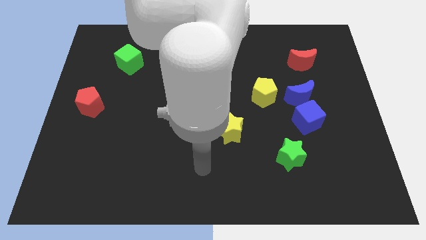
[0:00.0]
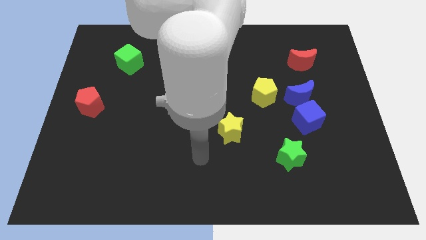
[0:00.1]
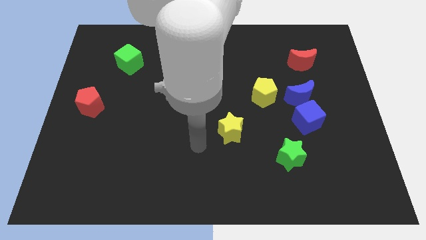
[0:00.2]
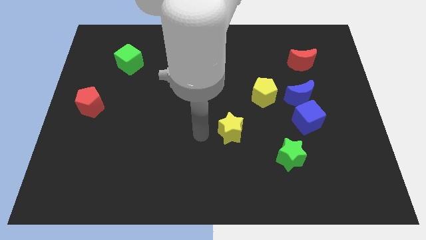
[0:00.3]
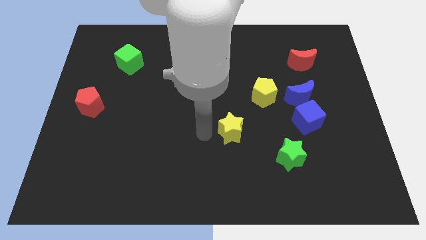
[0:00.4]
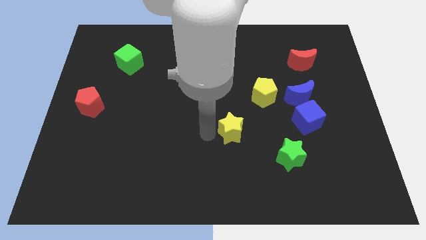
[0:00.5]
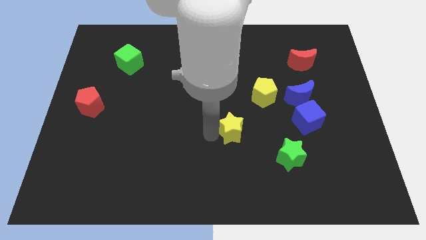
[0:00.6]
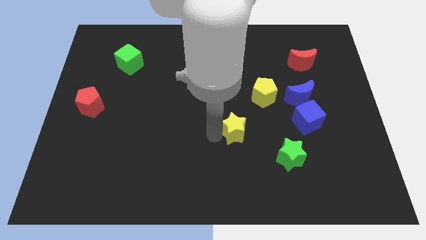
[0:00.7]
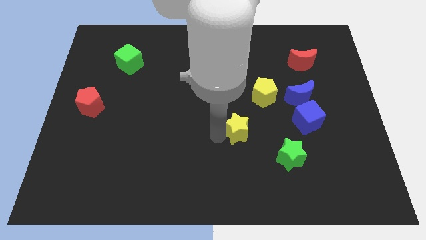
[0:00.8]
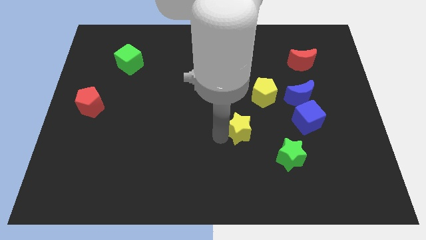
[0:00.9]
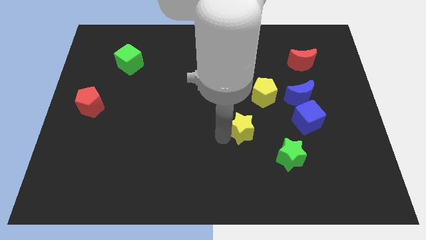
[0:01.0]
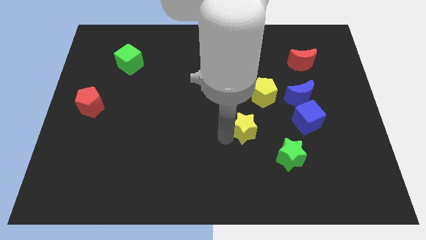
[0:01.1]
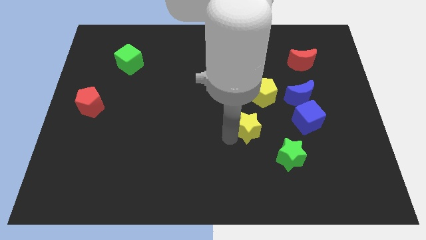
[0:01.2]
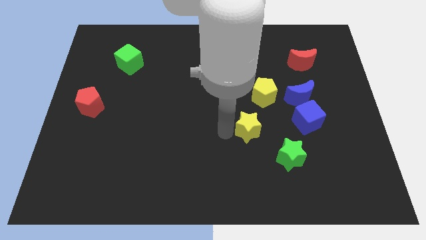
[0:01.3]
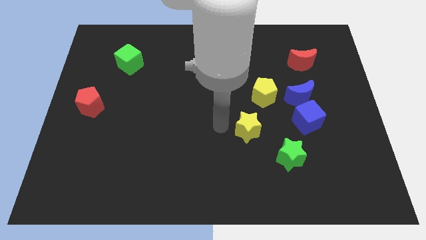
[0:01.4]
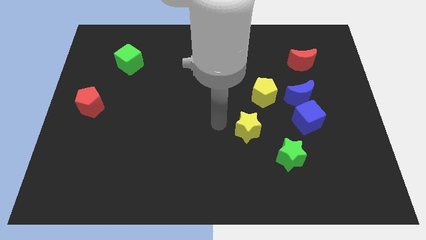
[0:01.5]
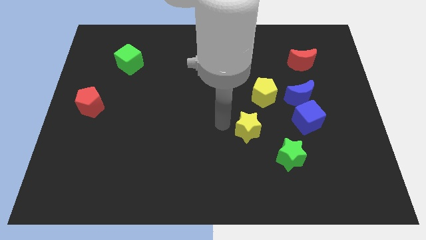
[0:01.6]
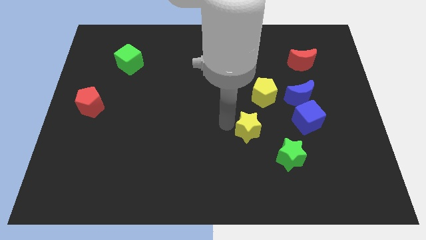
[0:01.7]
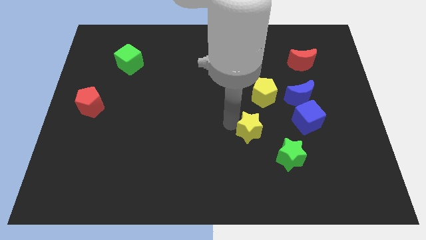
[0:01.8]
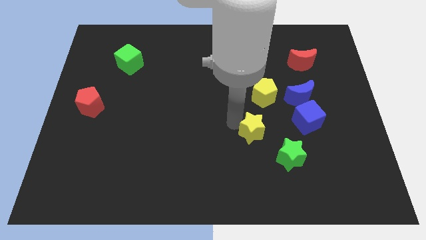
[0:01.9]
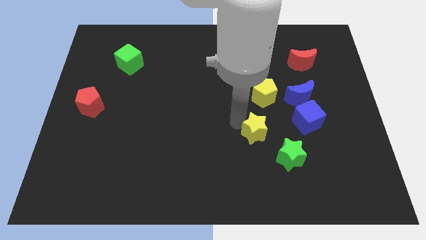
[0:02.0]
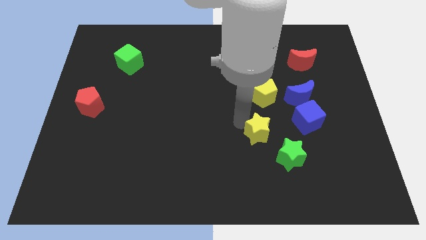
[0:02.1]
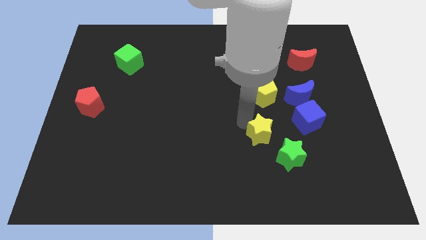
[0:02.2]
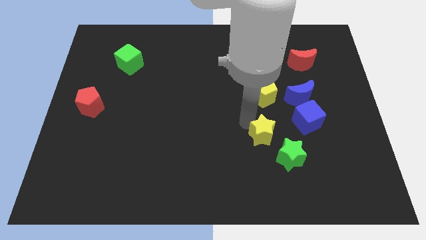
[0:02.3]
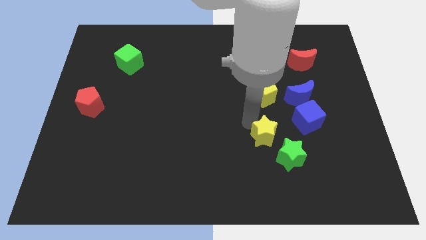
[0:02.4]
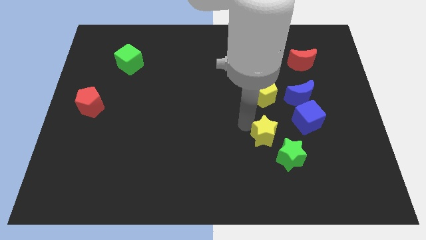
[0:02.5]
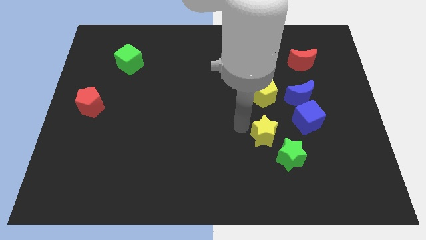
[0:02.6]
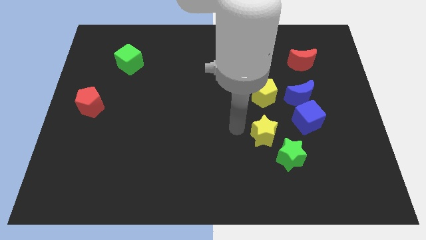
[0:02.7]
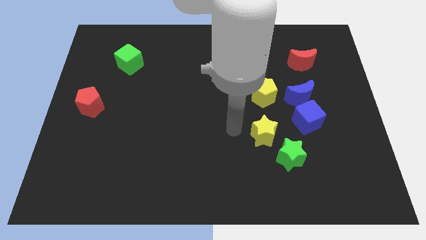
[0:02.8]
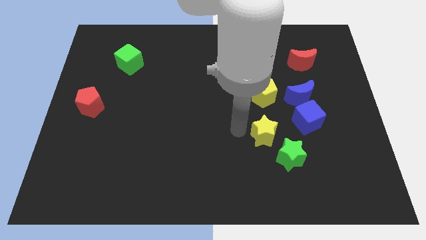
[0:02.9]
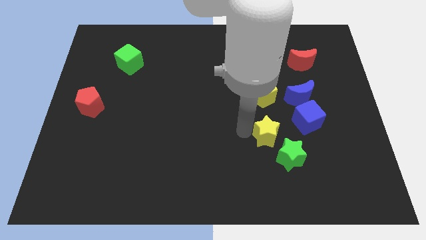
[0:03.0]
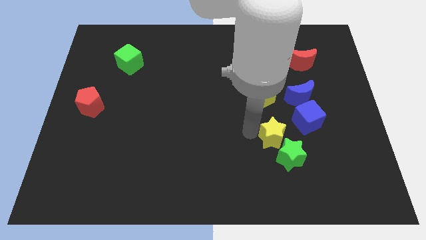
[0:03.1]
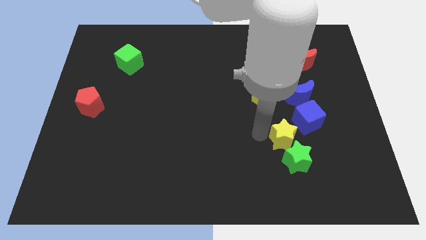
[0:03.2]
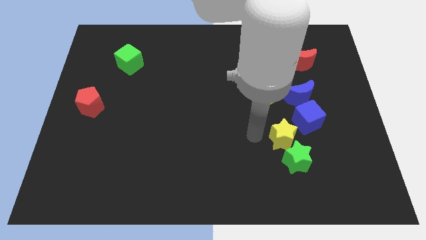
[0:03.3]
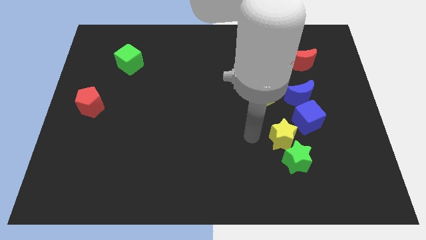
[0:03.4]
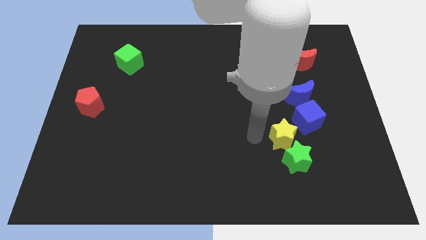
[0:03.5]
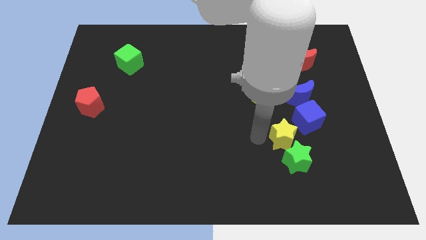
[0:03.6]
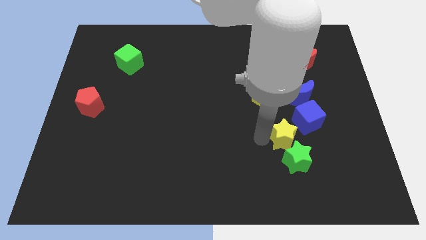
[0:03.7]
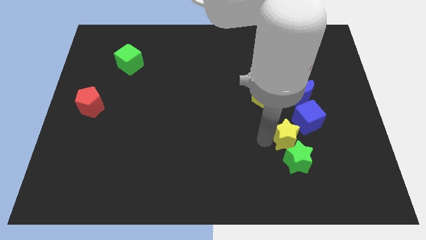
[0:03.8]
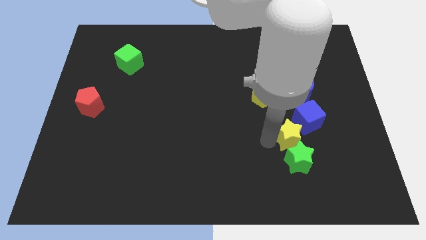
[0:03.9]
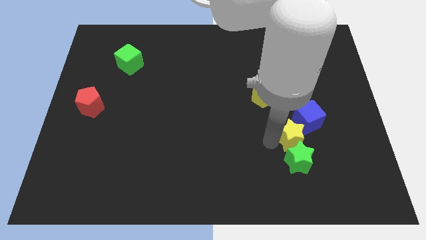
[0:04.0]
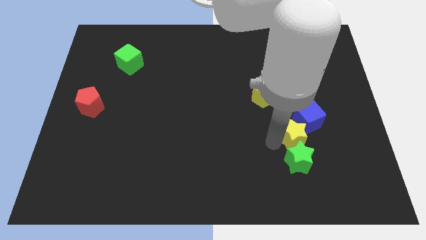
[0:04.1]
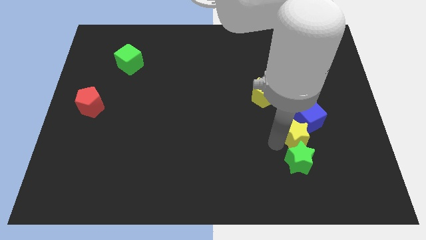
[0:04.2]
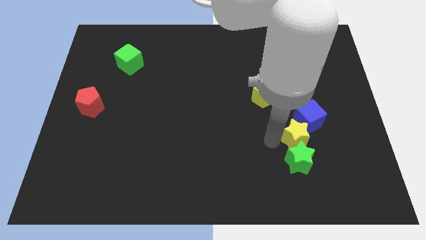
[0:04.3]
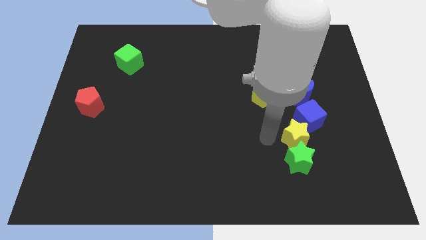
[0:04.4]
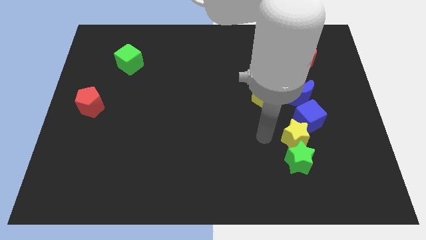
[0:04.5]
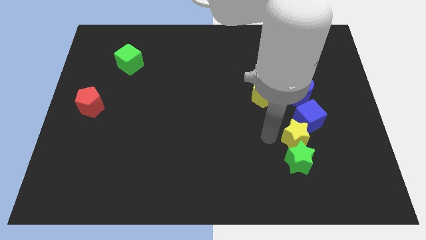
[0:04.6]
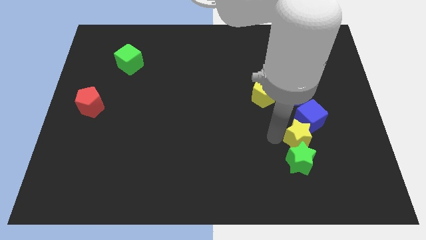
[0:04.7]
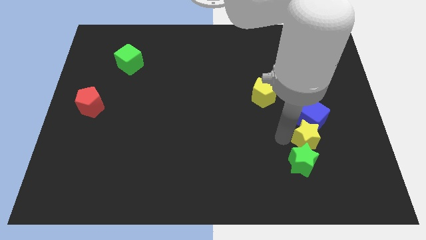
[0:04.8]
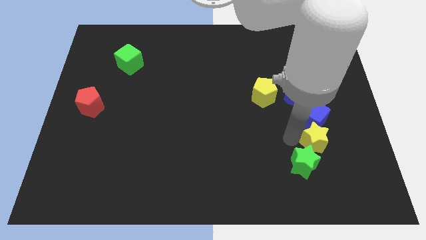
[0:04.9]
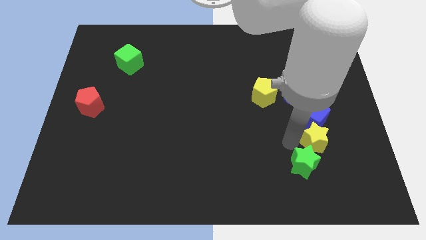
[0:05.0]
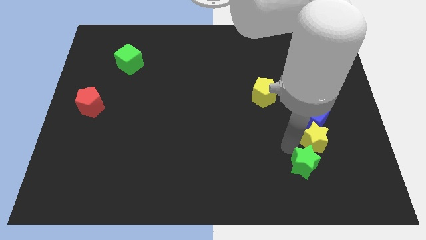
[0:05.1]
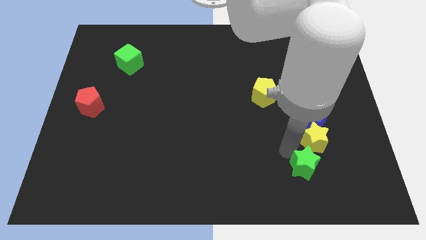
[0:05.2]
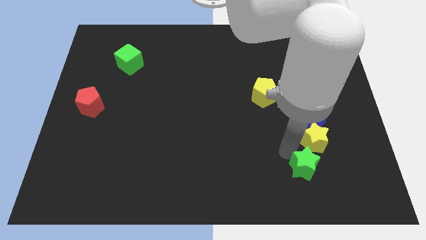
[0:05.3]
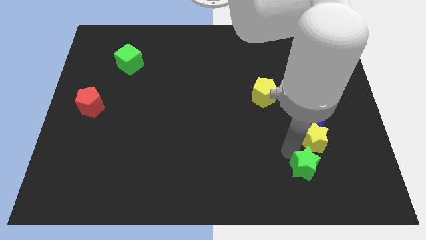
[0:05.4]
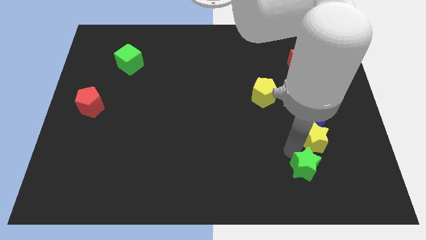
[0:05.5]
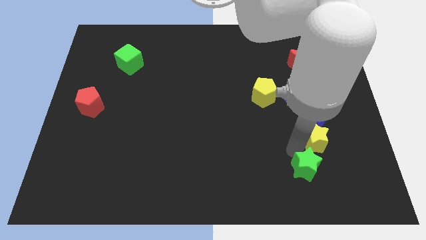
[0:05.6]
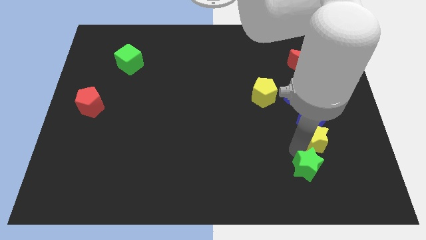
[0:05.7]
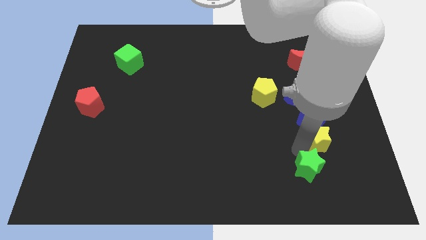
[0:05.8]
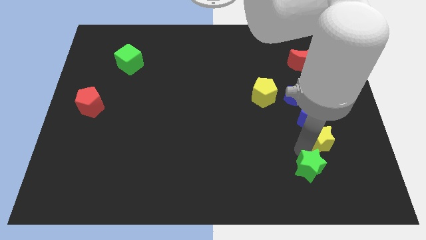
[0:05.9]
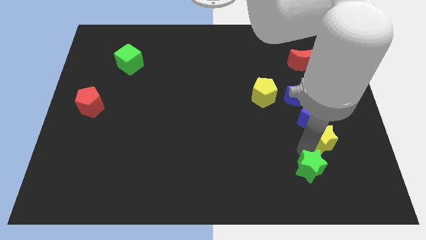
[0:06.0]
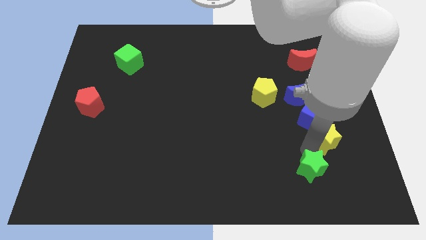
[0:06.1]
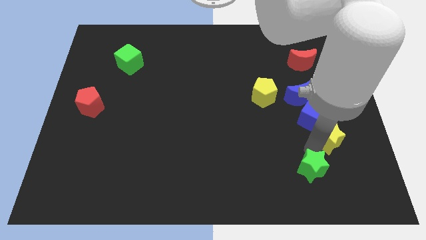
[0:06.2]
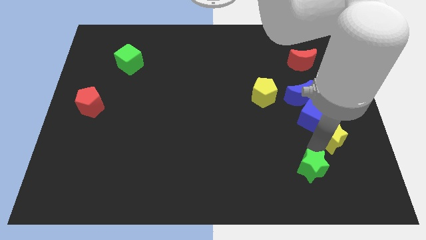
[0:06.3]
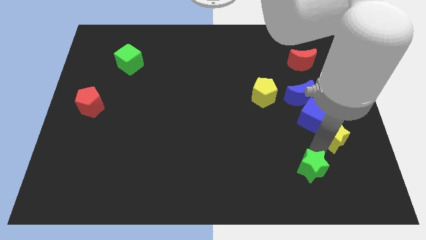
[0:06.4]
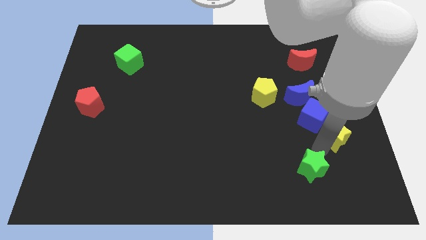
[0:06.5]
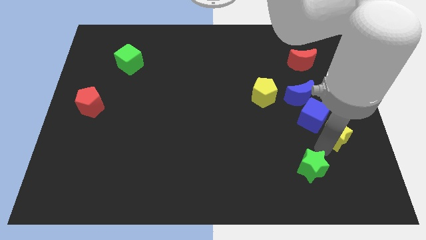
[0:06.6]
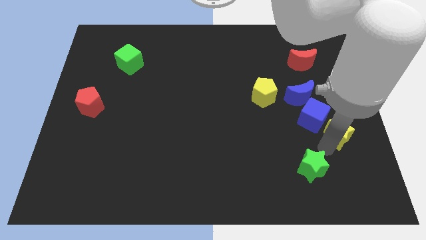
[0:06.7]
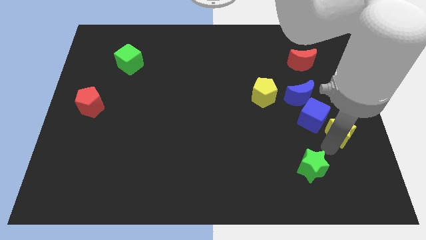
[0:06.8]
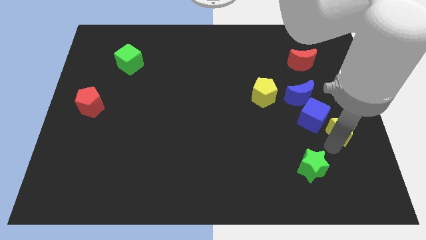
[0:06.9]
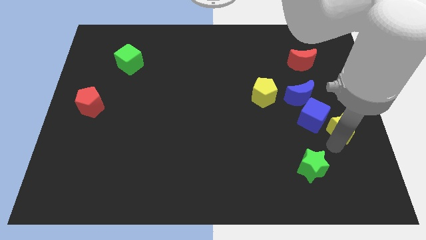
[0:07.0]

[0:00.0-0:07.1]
put the yellow star to the right side

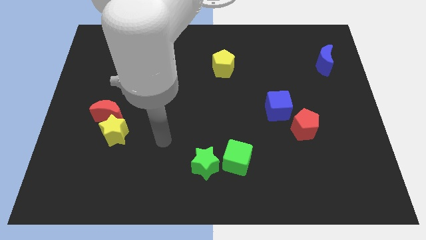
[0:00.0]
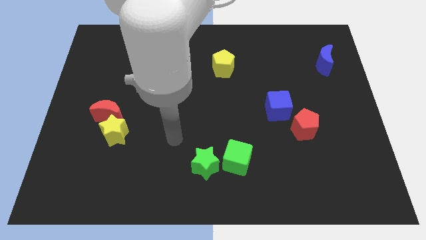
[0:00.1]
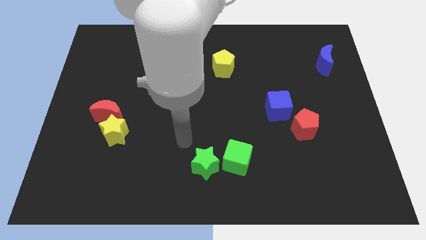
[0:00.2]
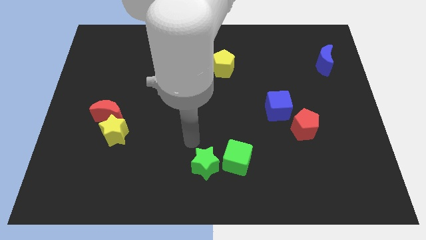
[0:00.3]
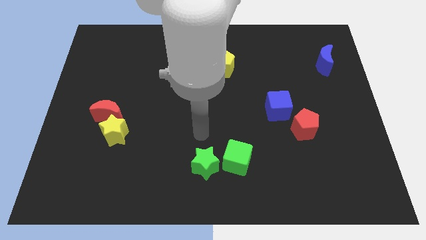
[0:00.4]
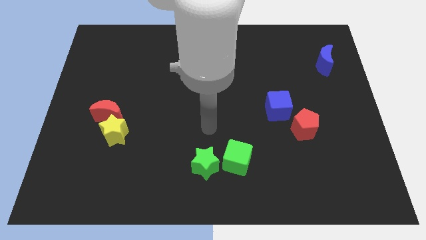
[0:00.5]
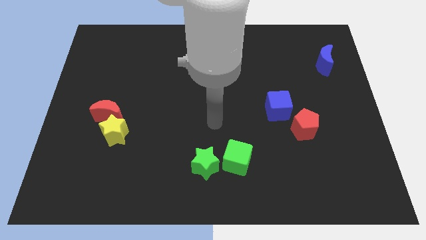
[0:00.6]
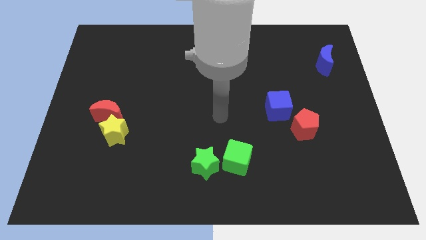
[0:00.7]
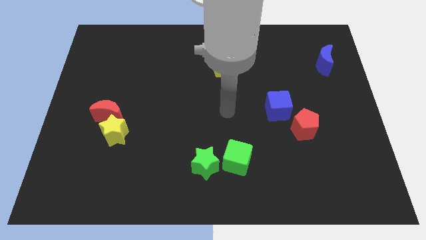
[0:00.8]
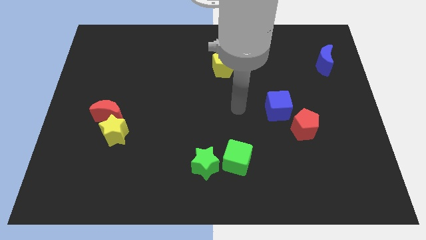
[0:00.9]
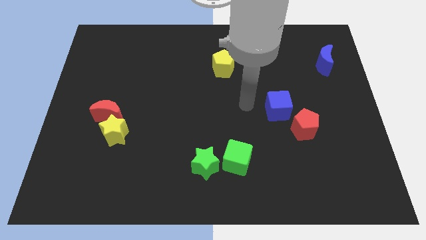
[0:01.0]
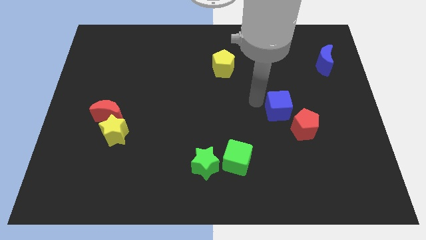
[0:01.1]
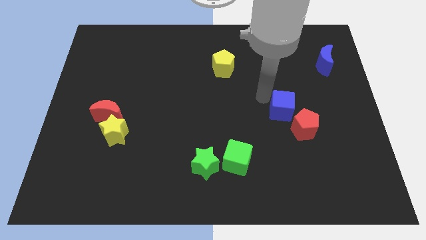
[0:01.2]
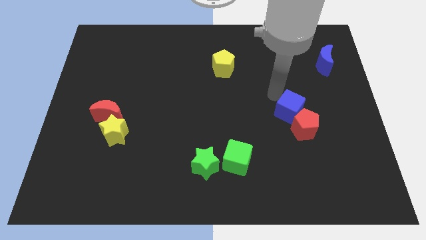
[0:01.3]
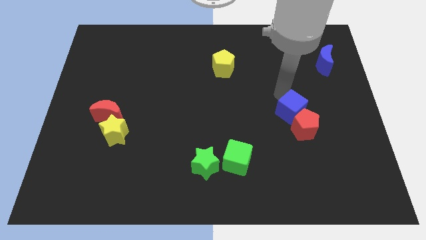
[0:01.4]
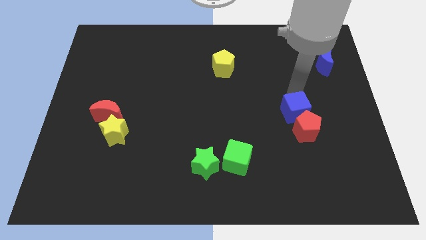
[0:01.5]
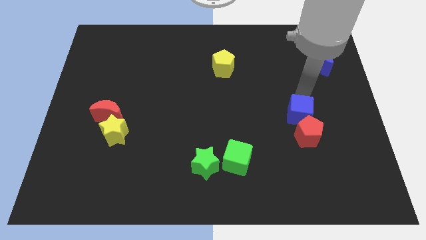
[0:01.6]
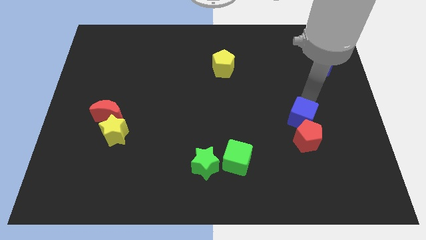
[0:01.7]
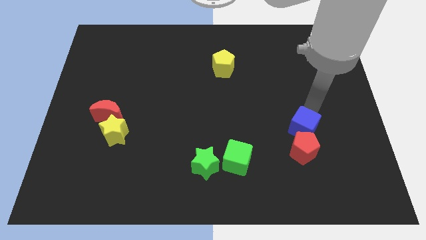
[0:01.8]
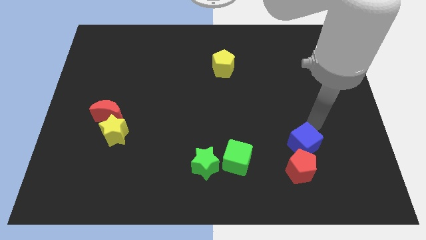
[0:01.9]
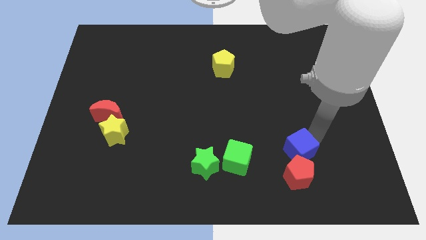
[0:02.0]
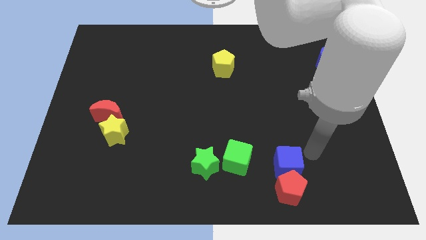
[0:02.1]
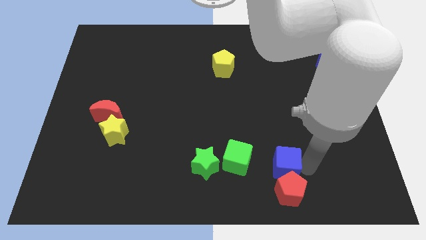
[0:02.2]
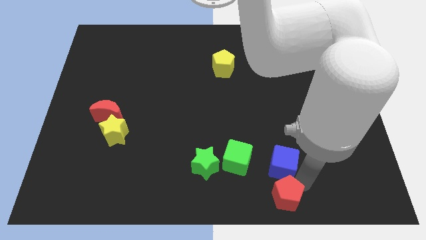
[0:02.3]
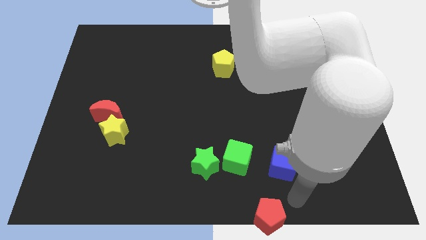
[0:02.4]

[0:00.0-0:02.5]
slide the red pentagon to the bottom side
